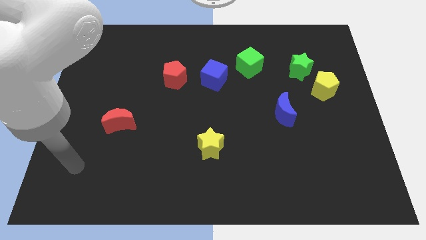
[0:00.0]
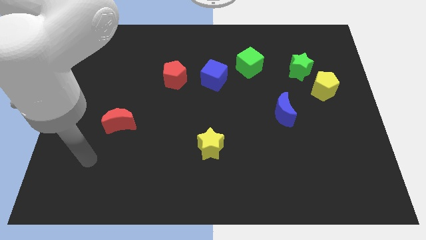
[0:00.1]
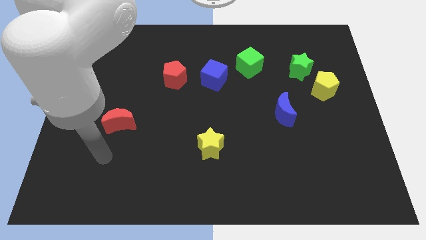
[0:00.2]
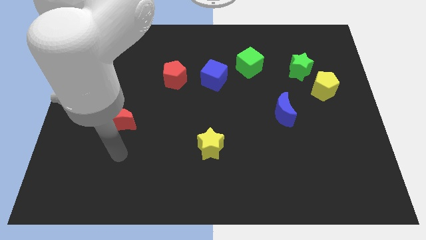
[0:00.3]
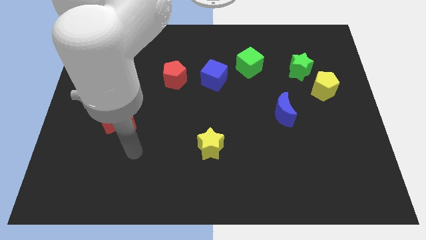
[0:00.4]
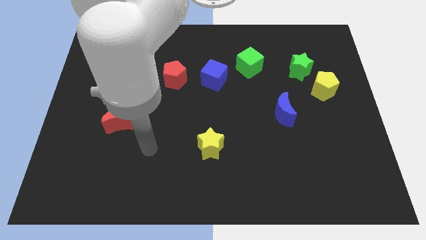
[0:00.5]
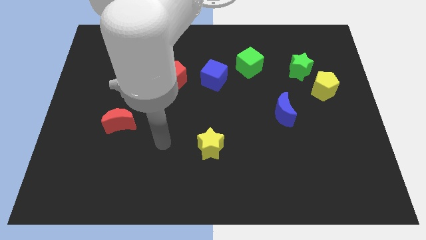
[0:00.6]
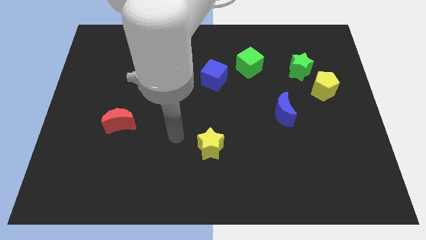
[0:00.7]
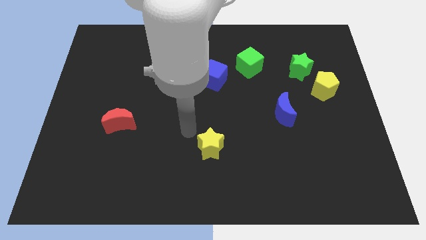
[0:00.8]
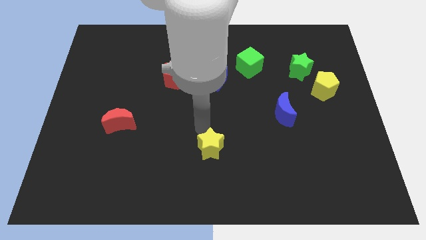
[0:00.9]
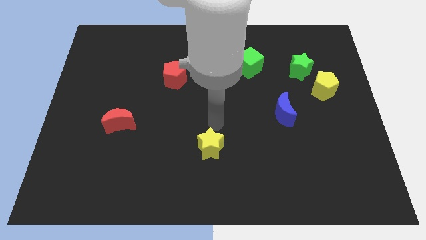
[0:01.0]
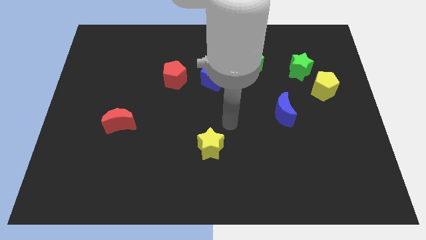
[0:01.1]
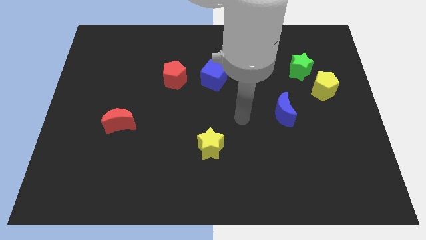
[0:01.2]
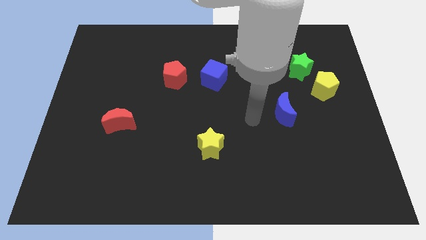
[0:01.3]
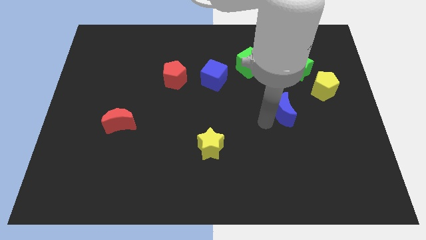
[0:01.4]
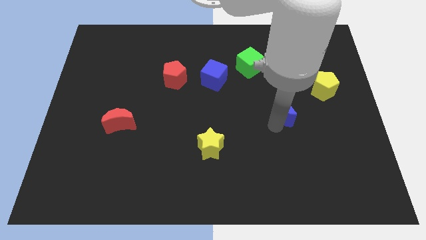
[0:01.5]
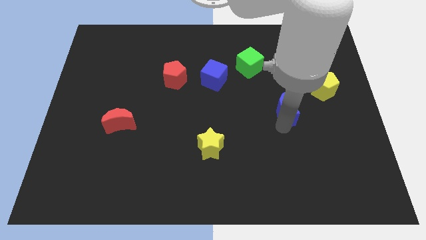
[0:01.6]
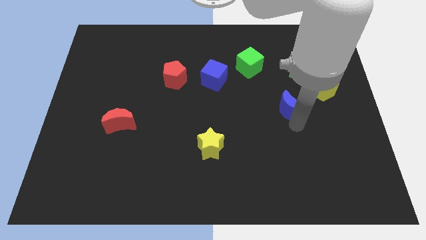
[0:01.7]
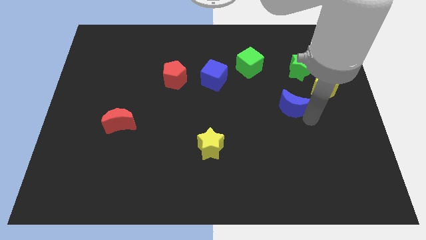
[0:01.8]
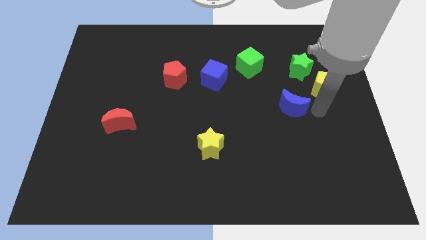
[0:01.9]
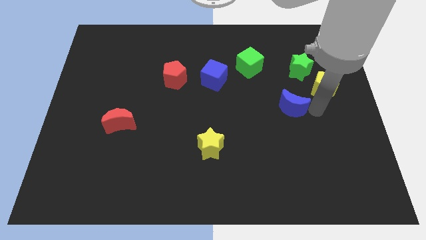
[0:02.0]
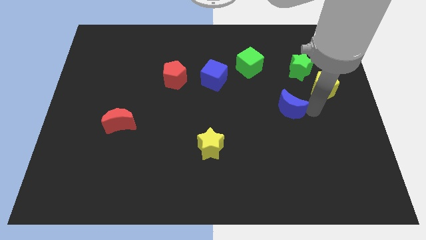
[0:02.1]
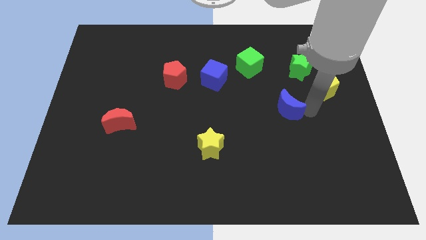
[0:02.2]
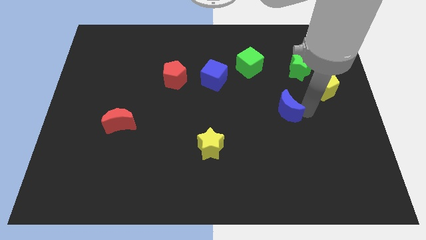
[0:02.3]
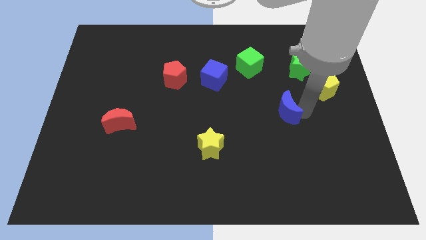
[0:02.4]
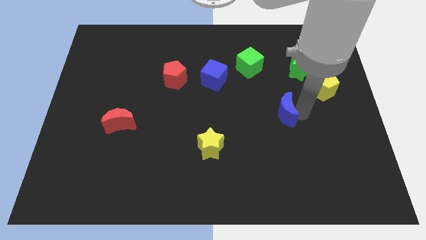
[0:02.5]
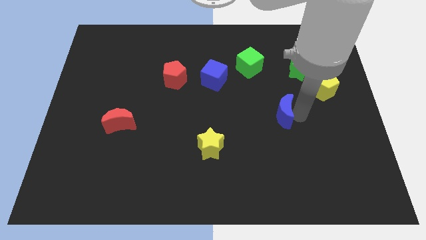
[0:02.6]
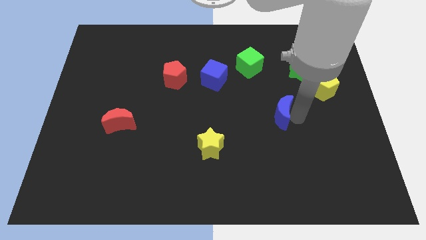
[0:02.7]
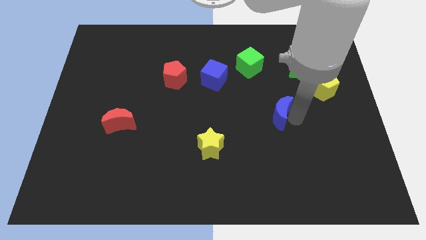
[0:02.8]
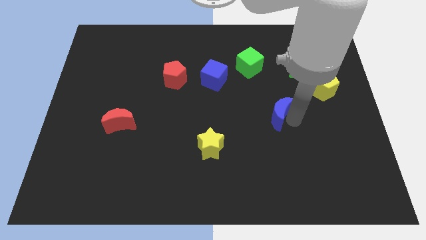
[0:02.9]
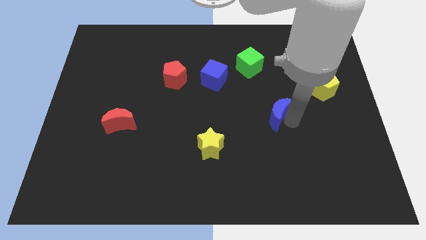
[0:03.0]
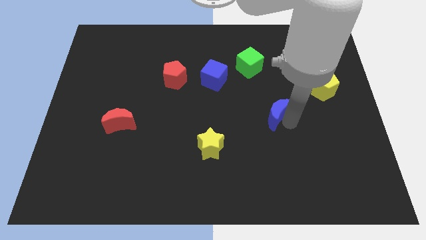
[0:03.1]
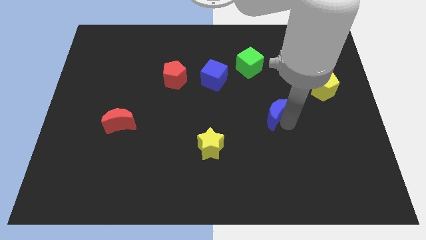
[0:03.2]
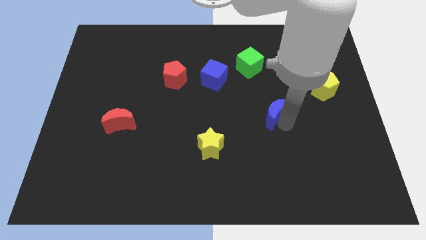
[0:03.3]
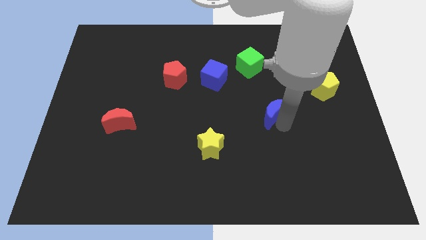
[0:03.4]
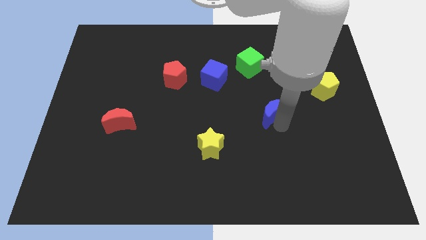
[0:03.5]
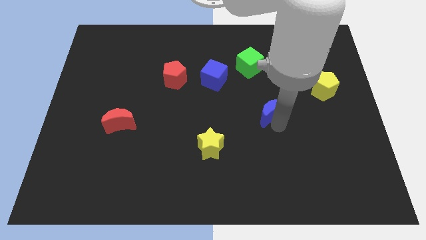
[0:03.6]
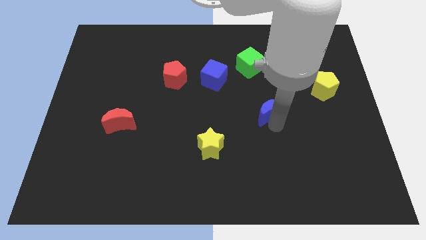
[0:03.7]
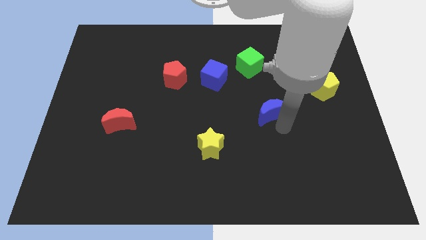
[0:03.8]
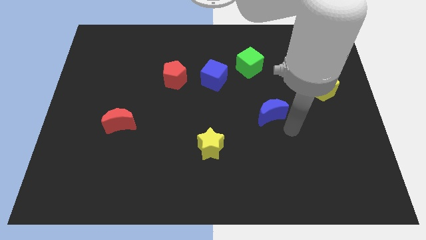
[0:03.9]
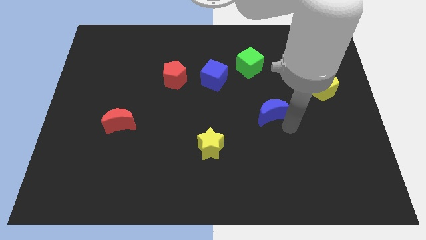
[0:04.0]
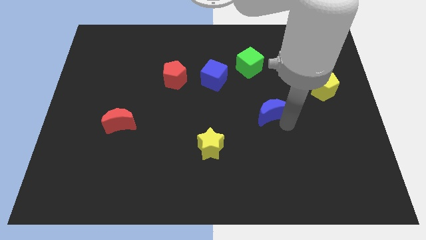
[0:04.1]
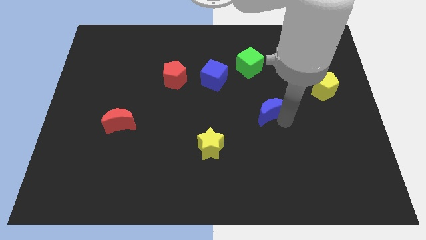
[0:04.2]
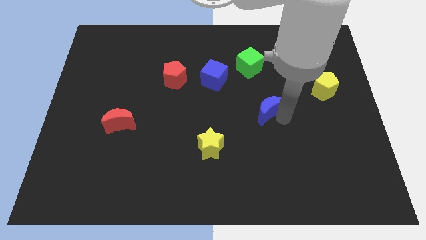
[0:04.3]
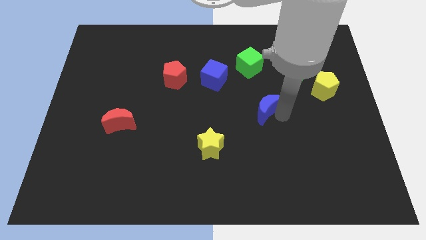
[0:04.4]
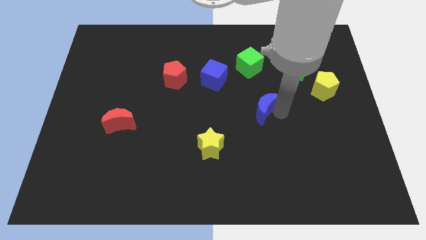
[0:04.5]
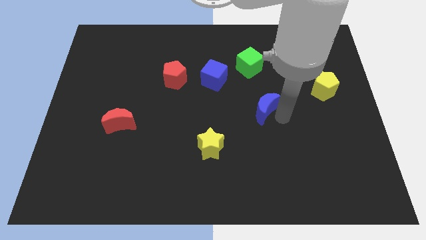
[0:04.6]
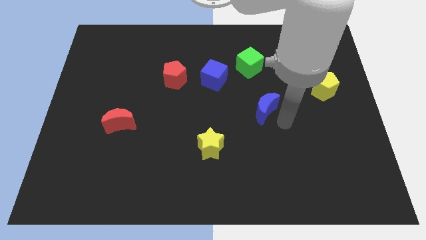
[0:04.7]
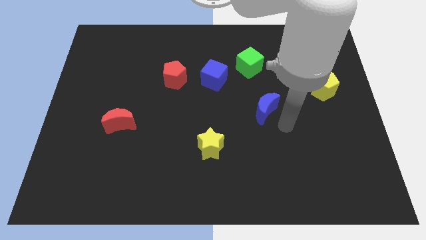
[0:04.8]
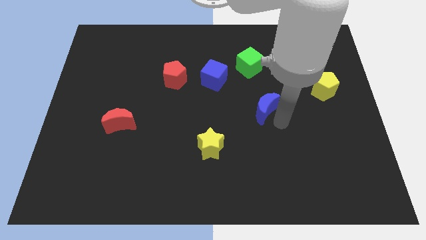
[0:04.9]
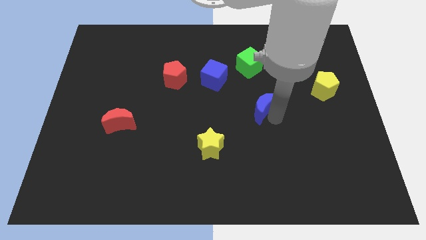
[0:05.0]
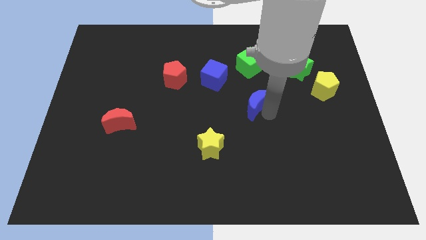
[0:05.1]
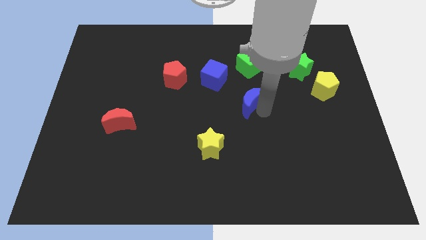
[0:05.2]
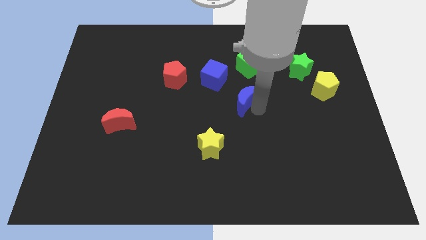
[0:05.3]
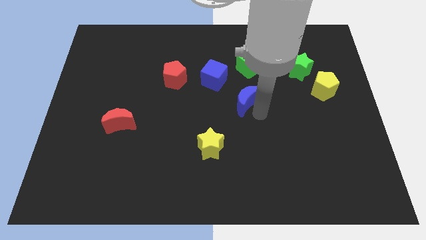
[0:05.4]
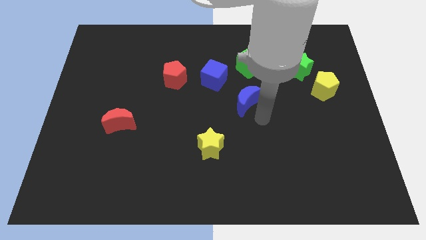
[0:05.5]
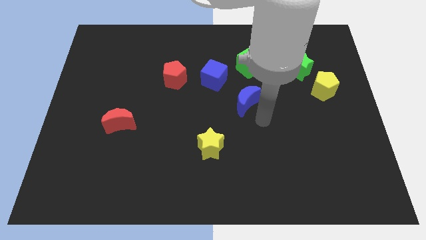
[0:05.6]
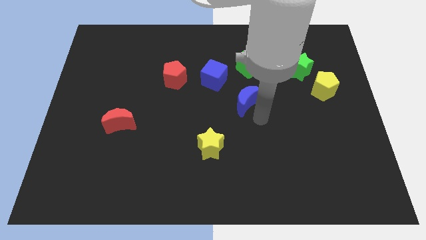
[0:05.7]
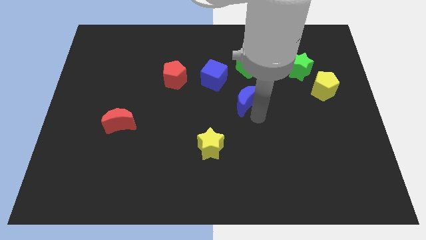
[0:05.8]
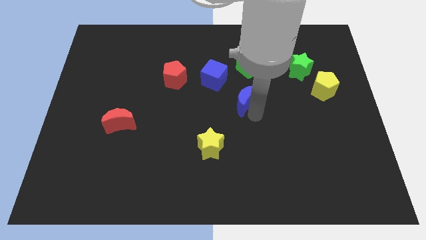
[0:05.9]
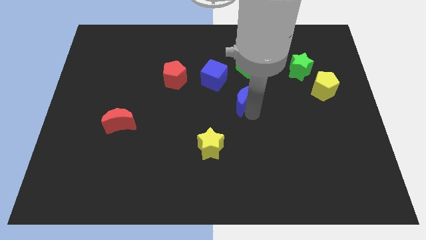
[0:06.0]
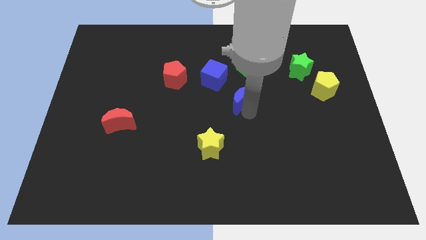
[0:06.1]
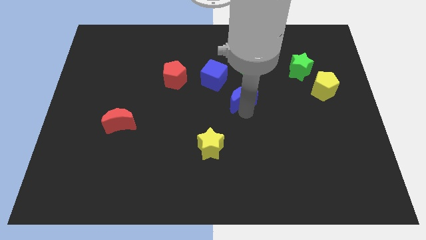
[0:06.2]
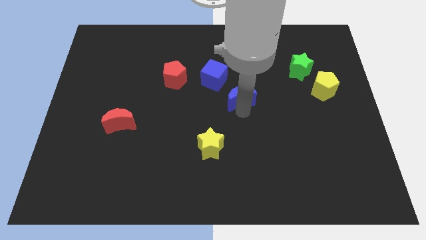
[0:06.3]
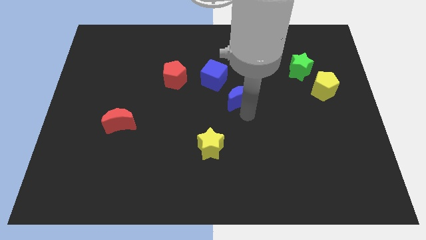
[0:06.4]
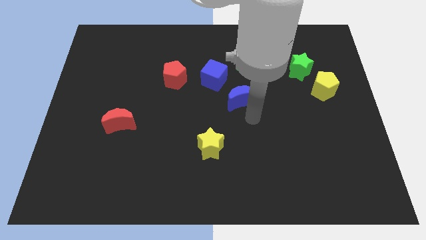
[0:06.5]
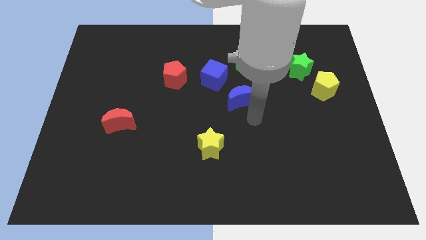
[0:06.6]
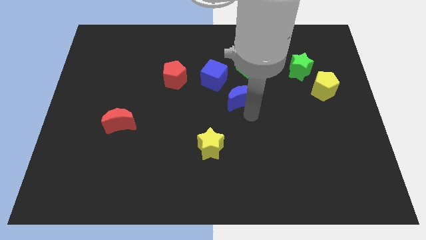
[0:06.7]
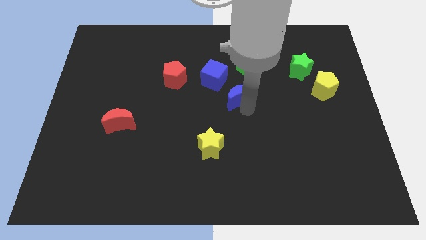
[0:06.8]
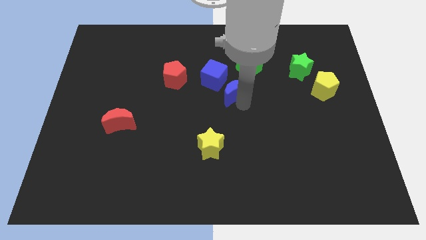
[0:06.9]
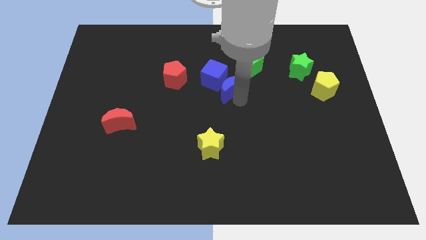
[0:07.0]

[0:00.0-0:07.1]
put the blue moon to the blue cube

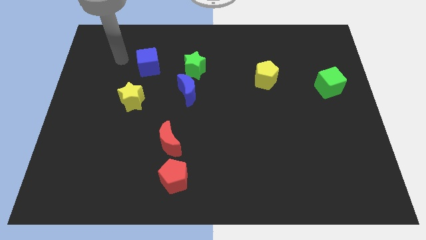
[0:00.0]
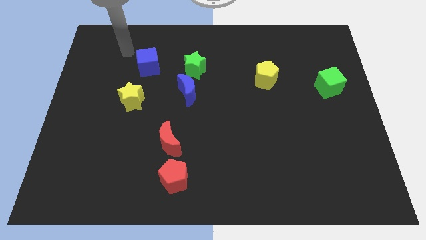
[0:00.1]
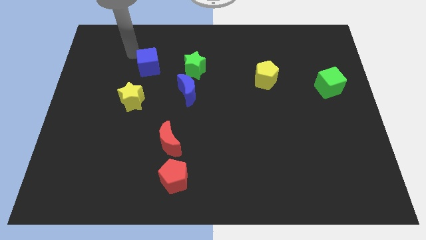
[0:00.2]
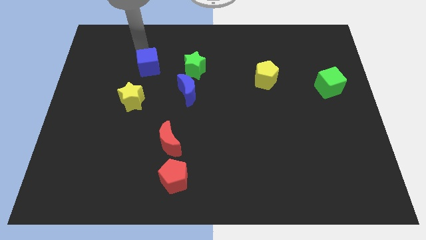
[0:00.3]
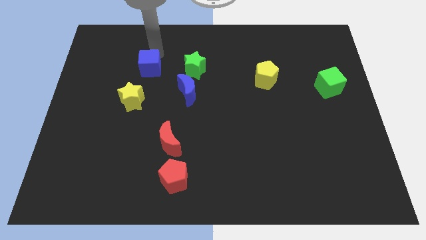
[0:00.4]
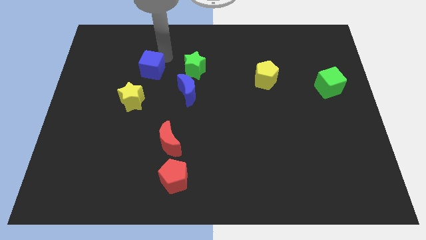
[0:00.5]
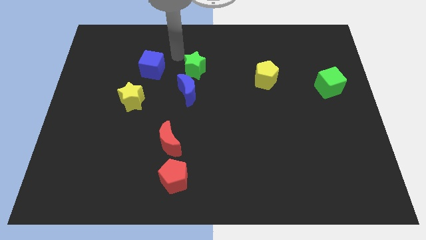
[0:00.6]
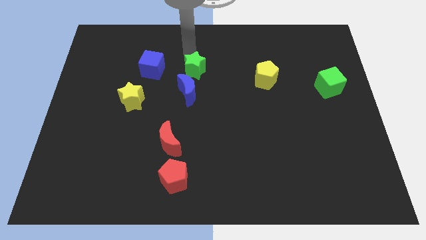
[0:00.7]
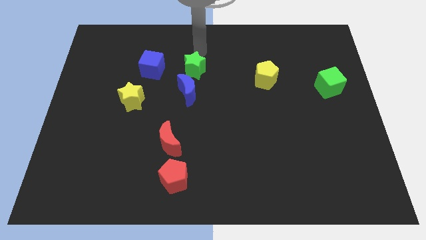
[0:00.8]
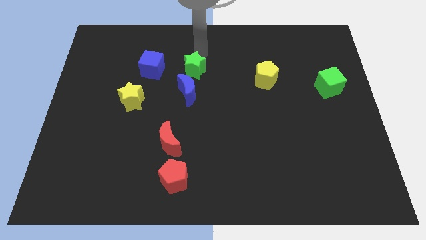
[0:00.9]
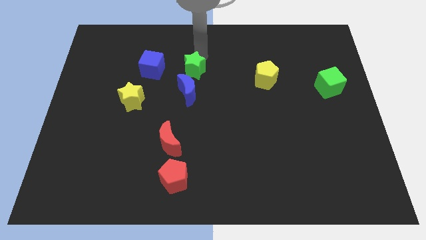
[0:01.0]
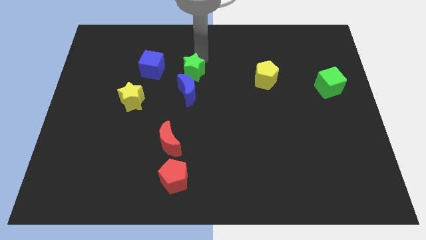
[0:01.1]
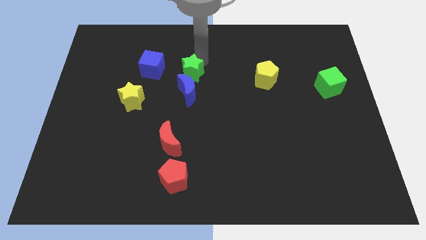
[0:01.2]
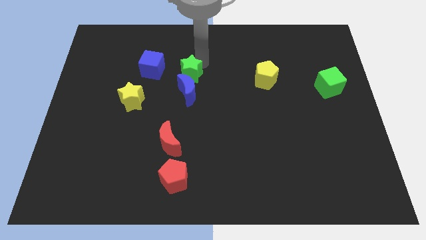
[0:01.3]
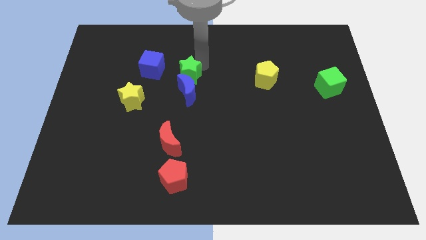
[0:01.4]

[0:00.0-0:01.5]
move the green star close to the blue moon
